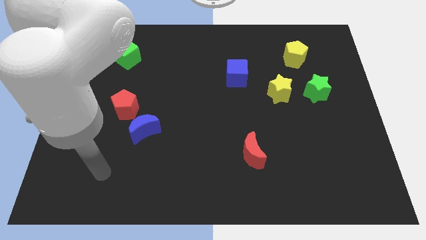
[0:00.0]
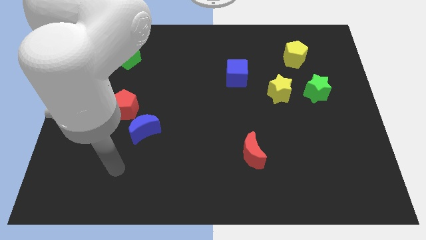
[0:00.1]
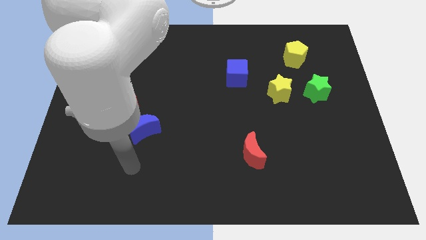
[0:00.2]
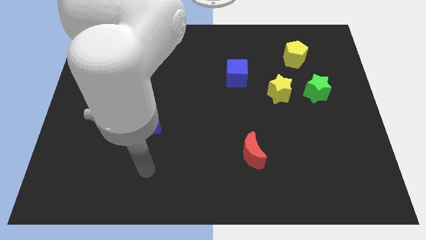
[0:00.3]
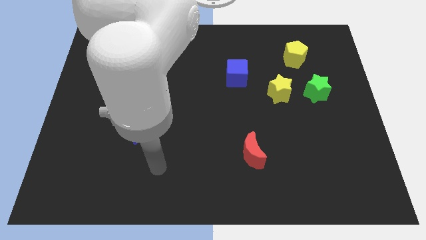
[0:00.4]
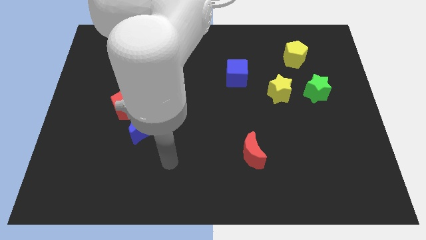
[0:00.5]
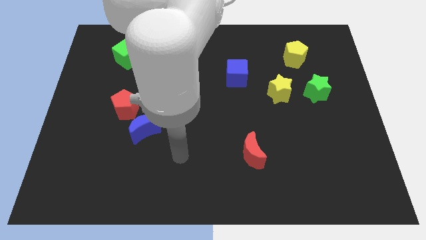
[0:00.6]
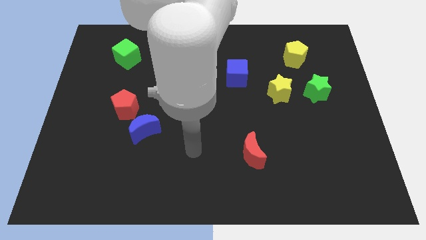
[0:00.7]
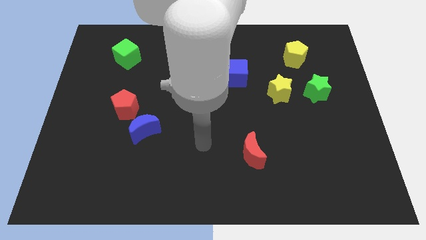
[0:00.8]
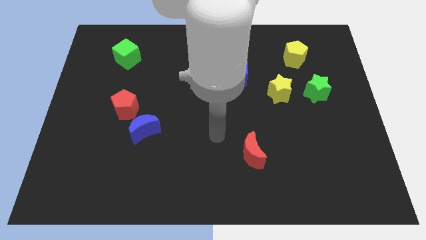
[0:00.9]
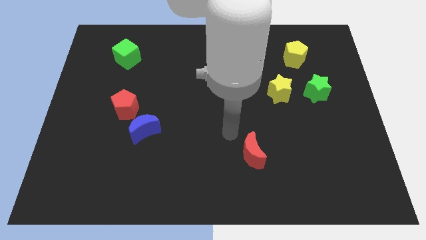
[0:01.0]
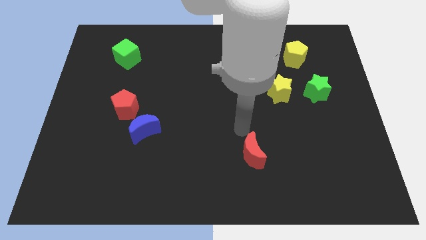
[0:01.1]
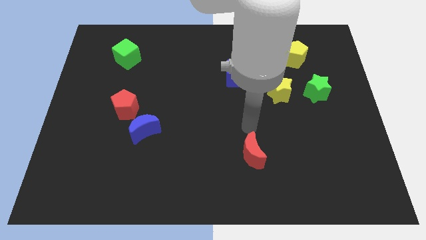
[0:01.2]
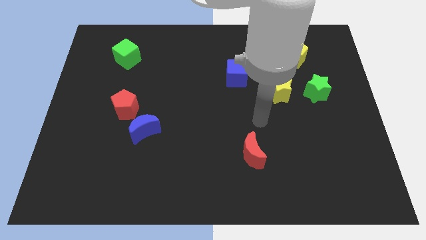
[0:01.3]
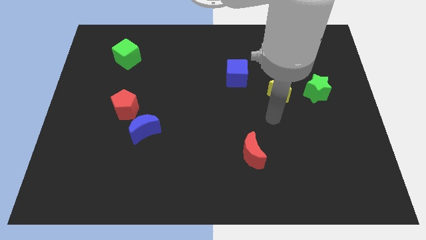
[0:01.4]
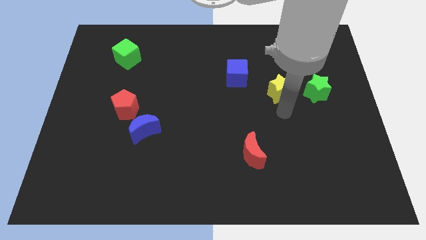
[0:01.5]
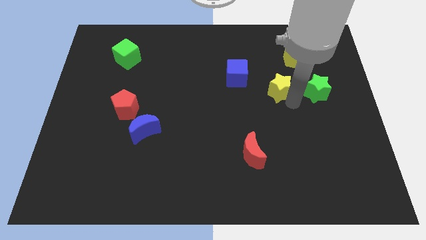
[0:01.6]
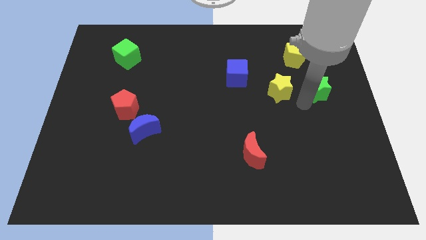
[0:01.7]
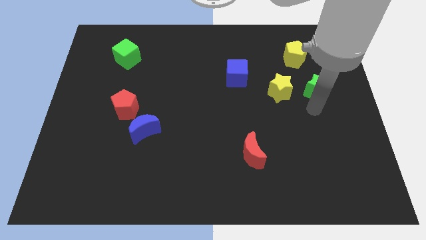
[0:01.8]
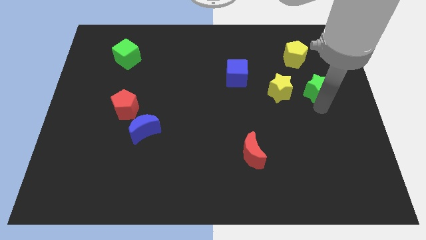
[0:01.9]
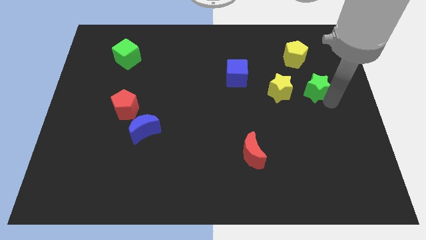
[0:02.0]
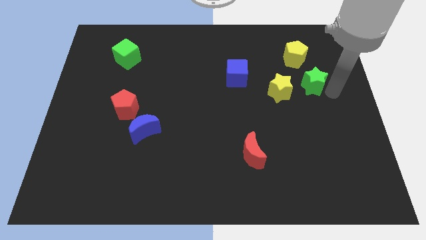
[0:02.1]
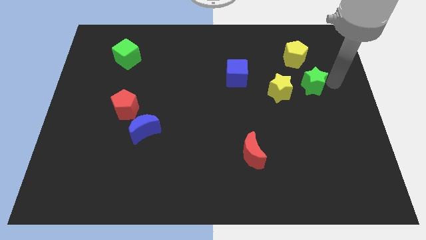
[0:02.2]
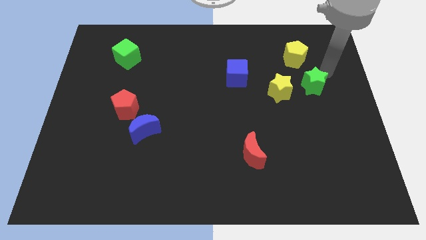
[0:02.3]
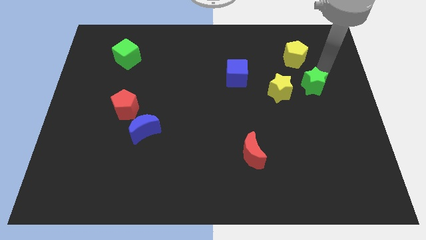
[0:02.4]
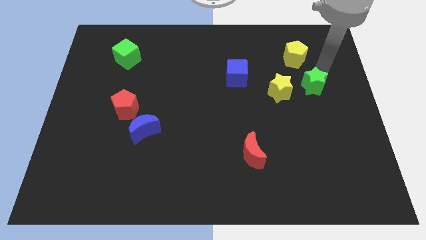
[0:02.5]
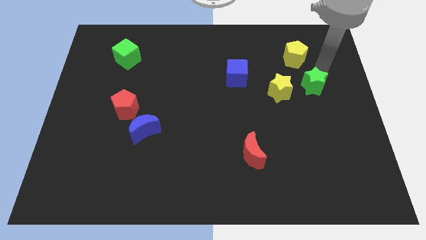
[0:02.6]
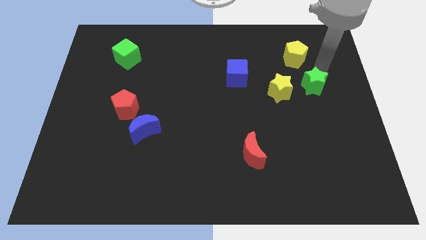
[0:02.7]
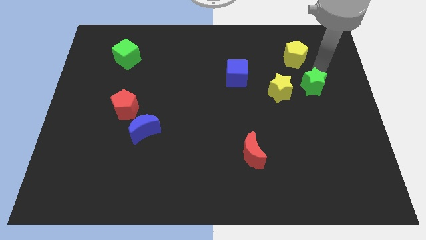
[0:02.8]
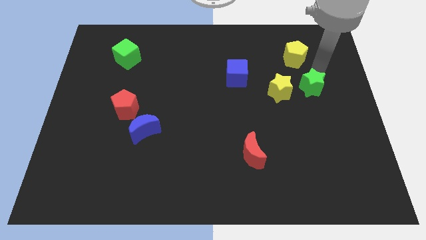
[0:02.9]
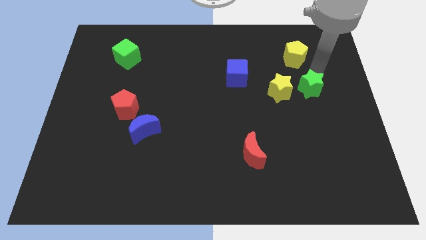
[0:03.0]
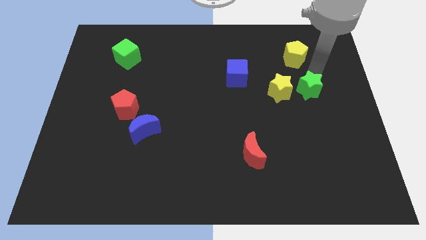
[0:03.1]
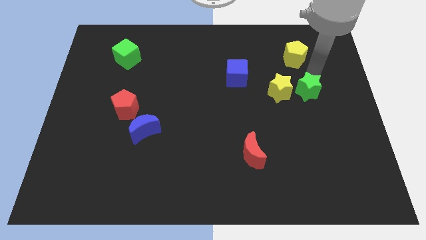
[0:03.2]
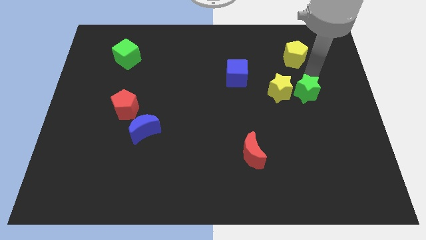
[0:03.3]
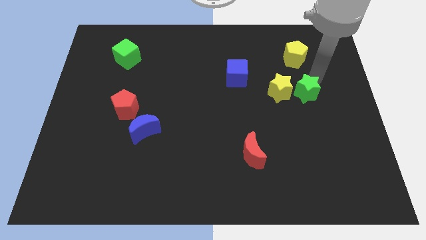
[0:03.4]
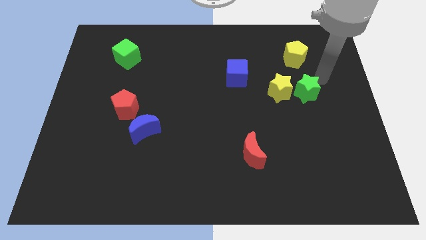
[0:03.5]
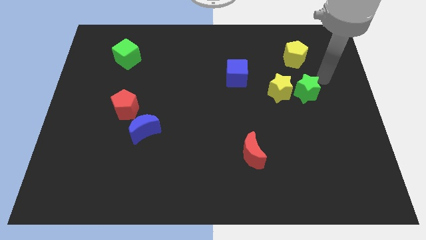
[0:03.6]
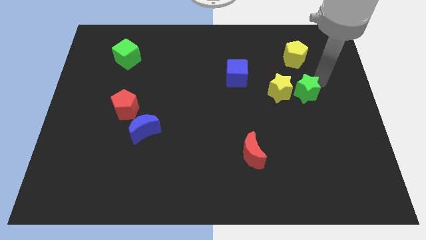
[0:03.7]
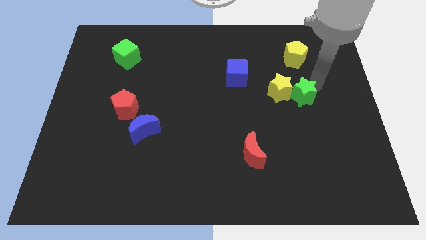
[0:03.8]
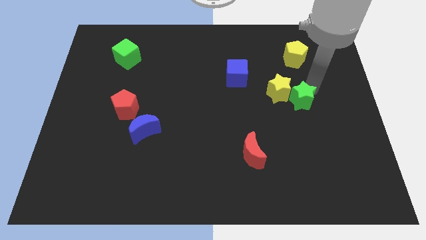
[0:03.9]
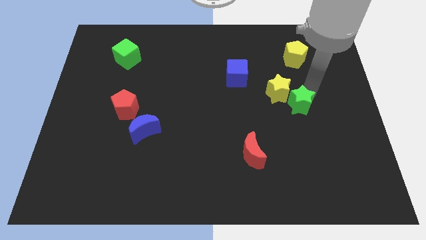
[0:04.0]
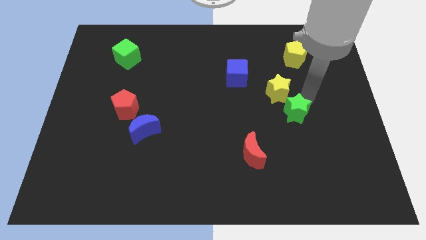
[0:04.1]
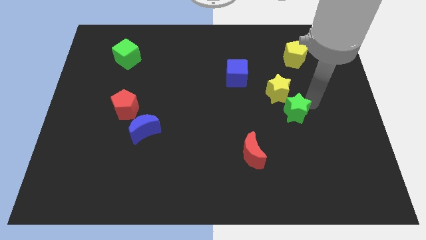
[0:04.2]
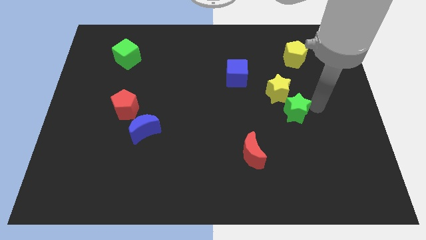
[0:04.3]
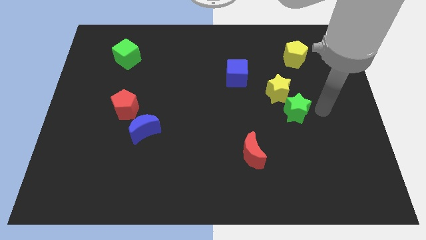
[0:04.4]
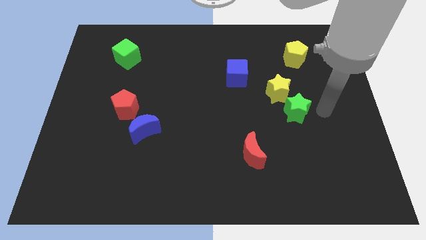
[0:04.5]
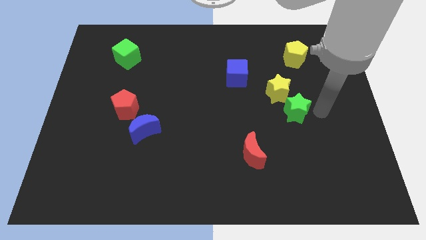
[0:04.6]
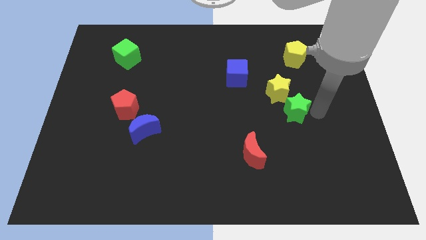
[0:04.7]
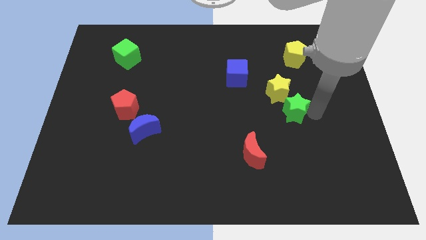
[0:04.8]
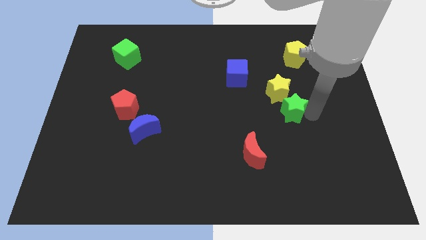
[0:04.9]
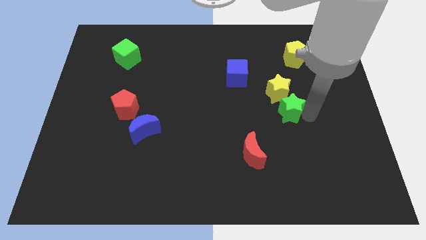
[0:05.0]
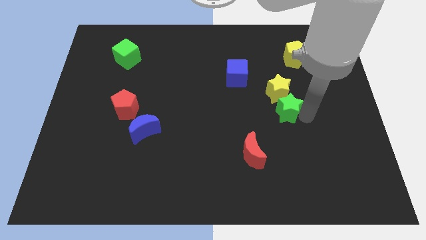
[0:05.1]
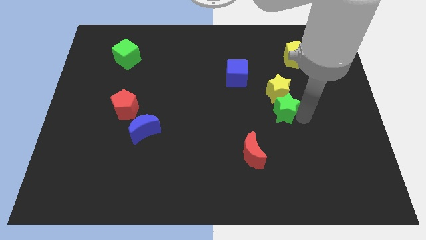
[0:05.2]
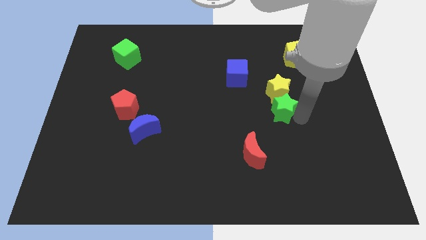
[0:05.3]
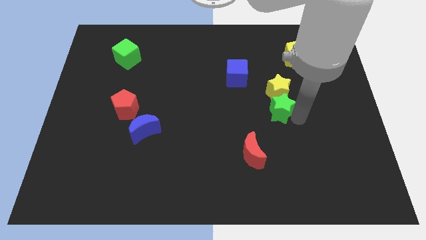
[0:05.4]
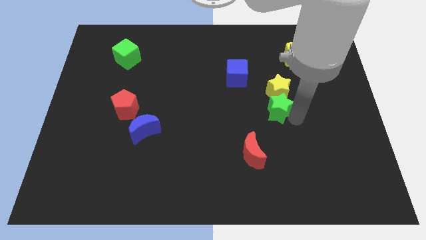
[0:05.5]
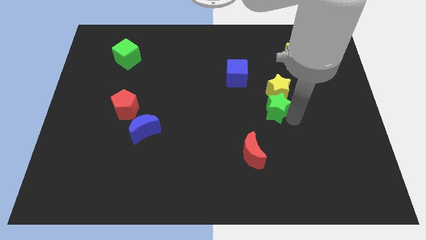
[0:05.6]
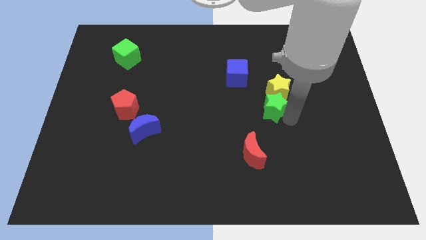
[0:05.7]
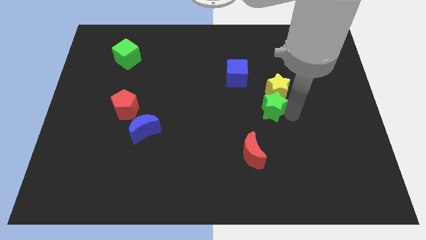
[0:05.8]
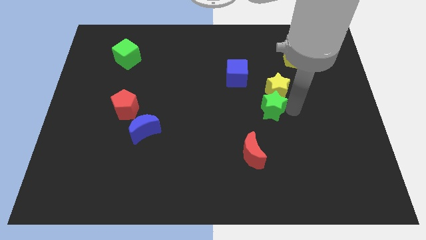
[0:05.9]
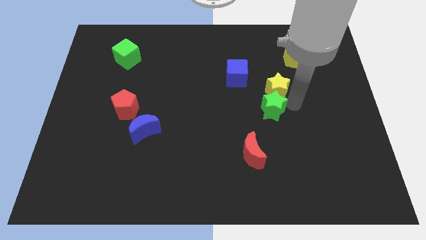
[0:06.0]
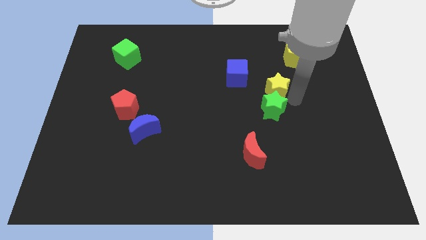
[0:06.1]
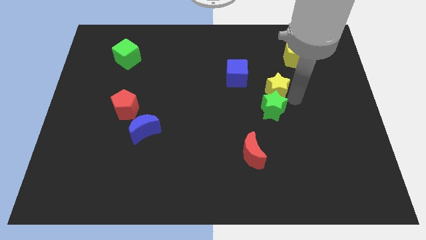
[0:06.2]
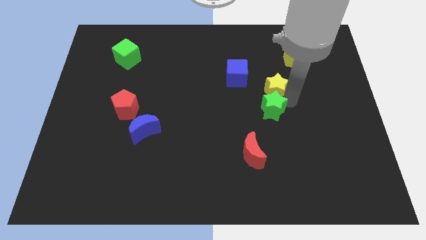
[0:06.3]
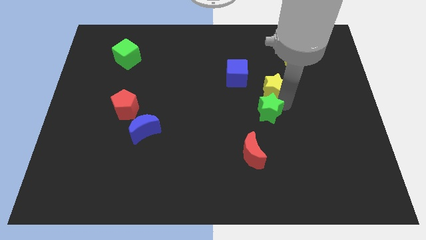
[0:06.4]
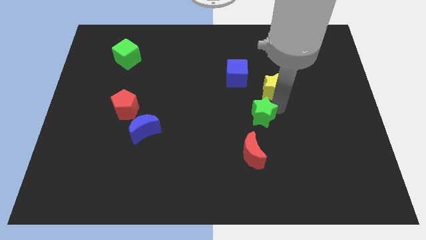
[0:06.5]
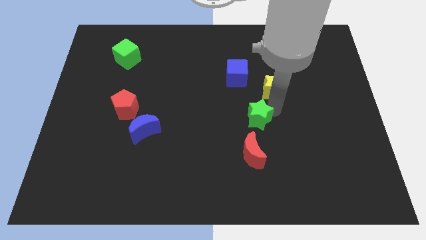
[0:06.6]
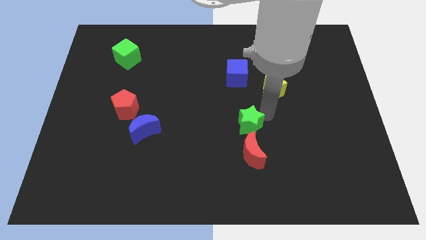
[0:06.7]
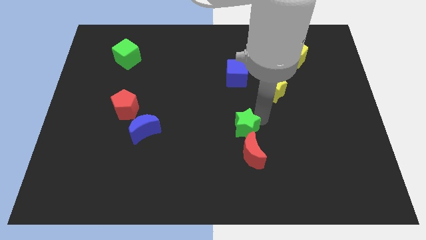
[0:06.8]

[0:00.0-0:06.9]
put the green star to the top left of the red moon

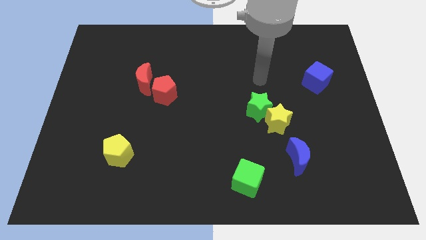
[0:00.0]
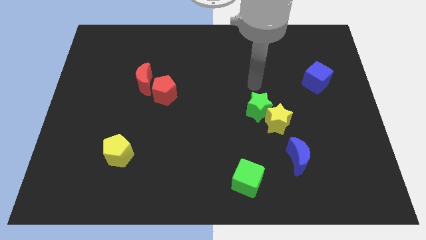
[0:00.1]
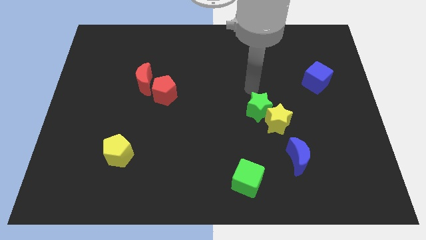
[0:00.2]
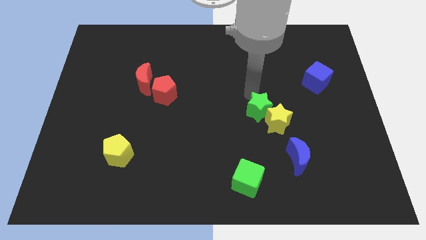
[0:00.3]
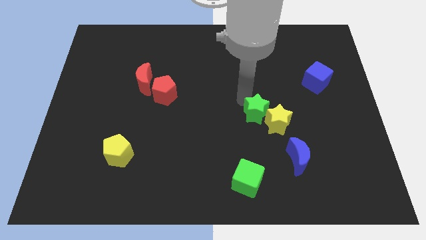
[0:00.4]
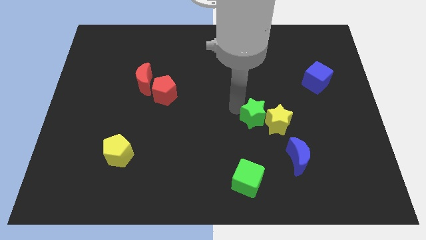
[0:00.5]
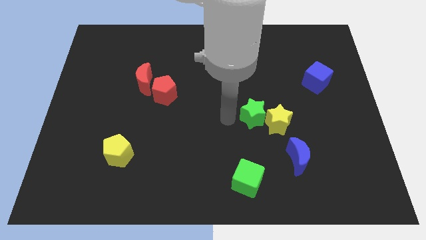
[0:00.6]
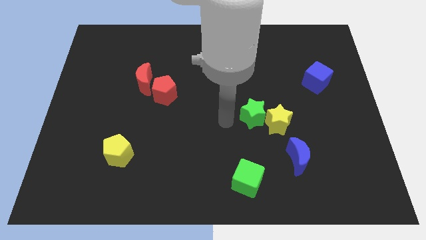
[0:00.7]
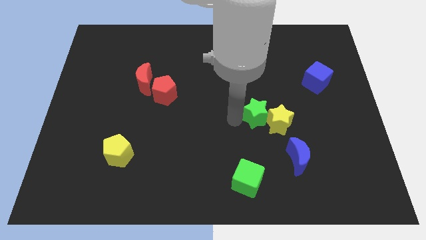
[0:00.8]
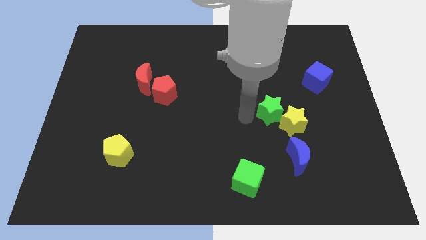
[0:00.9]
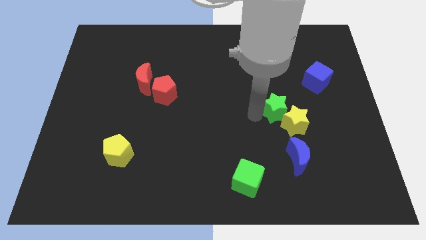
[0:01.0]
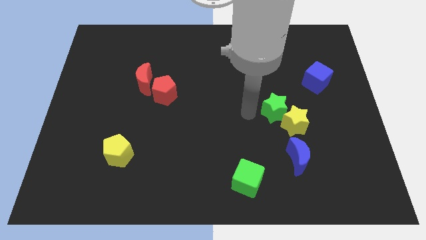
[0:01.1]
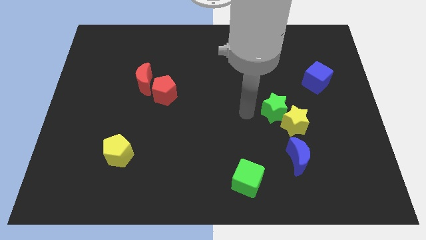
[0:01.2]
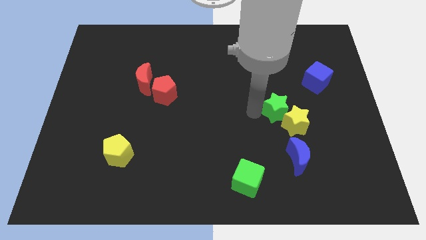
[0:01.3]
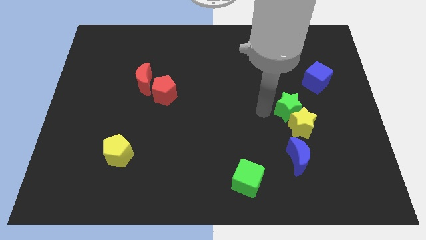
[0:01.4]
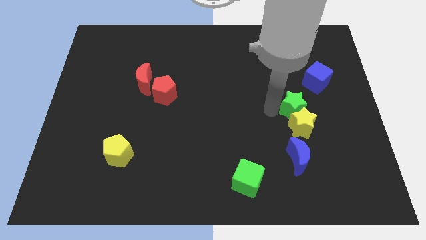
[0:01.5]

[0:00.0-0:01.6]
slide the green star diagonally up and to the right of the yellow star
